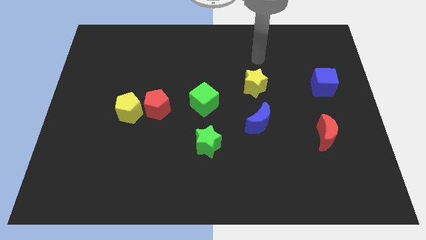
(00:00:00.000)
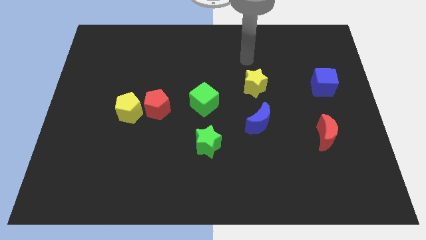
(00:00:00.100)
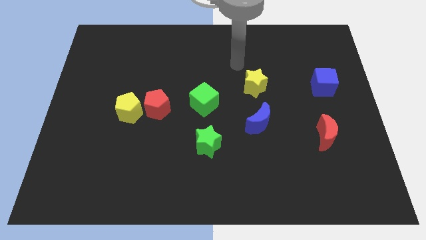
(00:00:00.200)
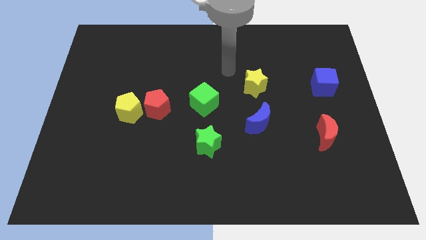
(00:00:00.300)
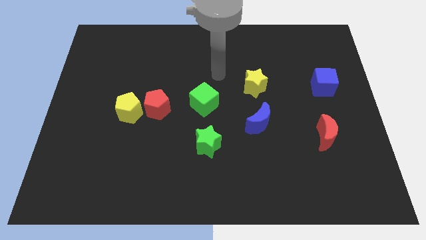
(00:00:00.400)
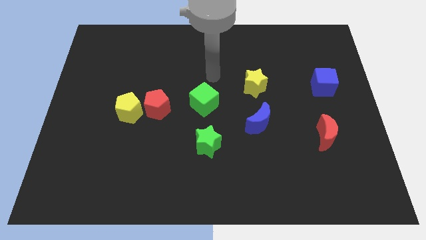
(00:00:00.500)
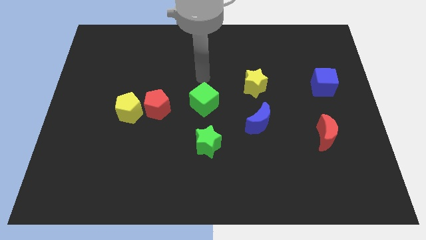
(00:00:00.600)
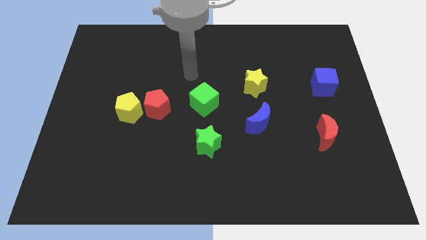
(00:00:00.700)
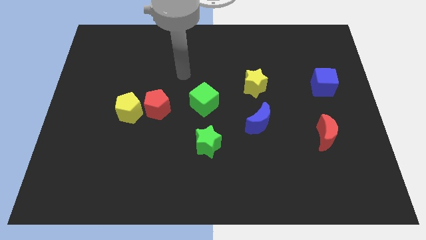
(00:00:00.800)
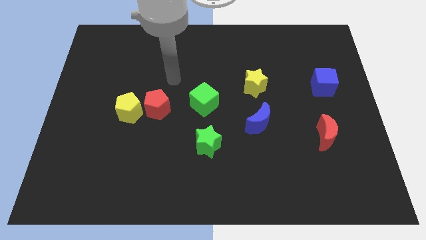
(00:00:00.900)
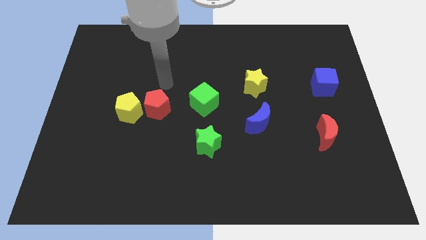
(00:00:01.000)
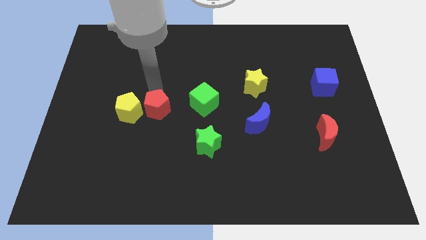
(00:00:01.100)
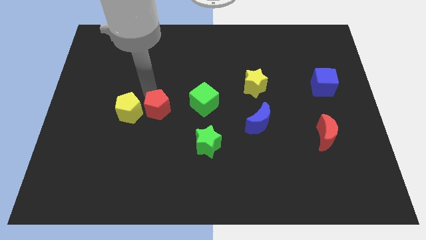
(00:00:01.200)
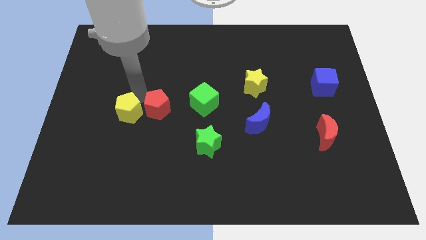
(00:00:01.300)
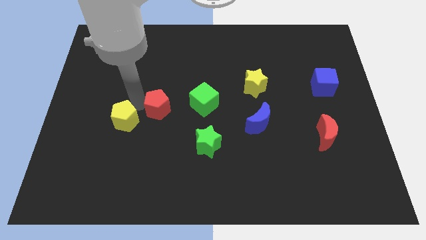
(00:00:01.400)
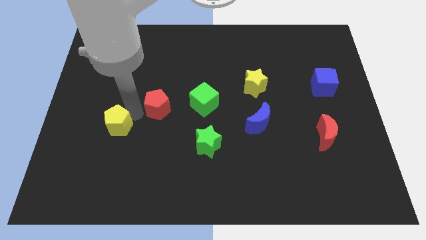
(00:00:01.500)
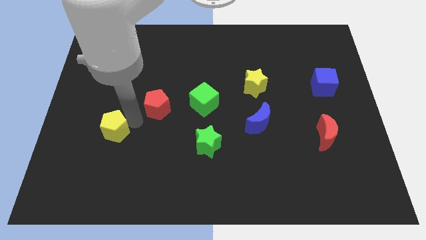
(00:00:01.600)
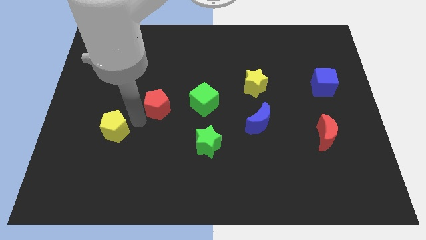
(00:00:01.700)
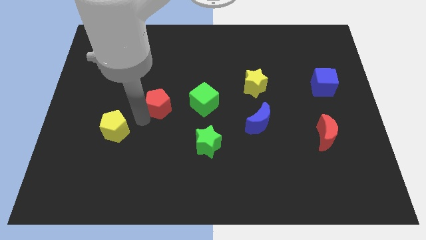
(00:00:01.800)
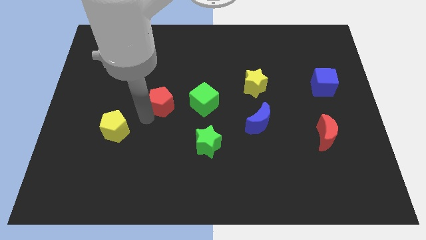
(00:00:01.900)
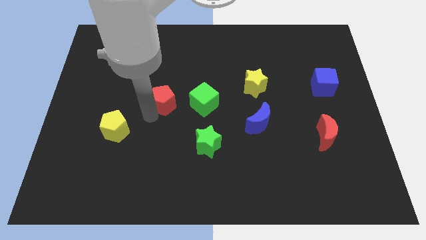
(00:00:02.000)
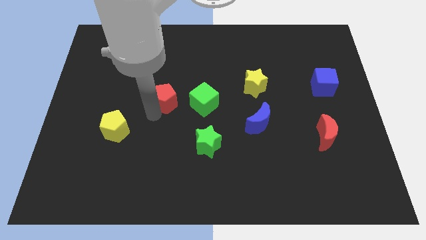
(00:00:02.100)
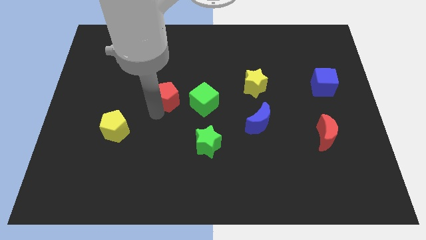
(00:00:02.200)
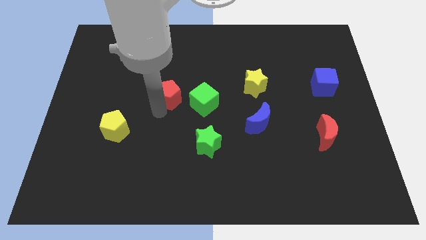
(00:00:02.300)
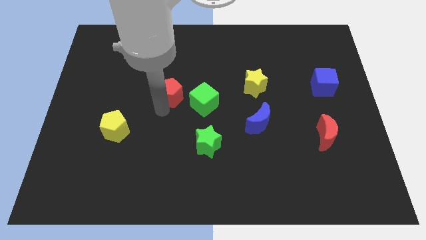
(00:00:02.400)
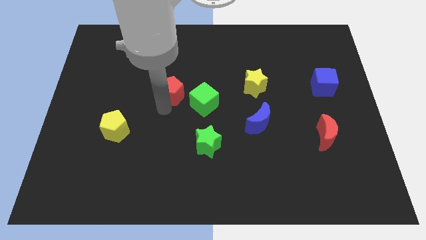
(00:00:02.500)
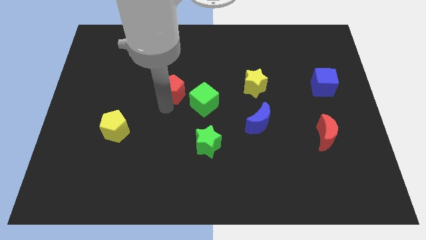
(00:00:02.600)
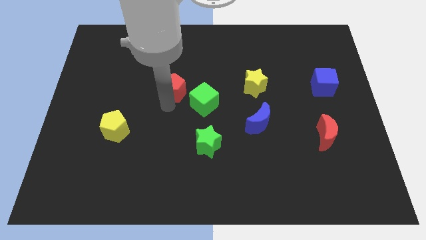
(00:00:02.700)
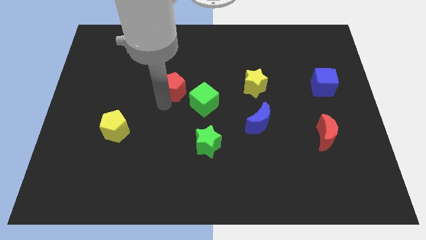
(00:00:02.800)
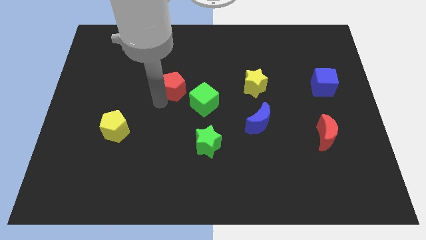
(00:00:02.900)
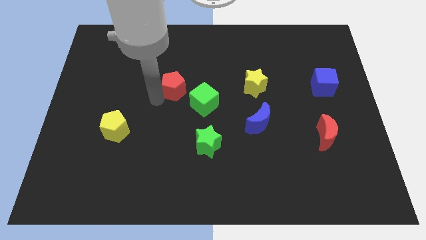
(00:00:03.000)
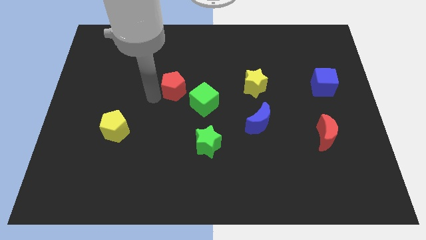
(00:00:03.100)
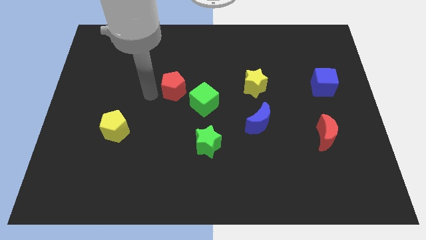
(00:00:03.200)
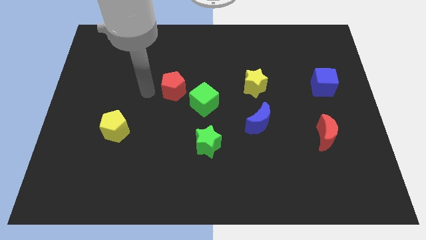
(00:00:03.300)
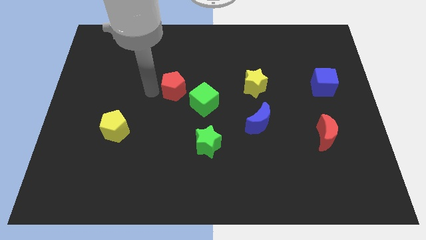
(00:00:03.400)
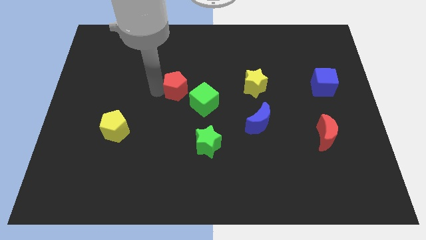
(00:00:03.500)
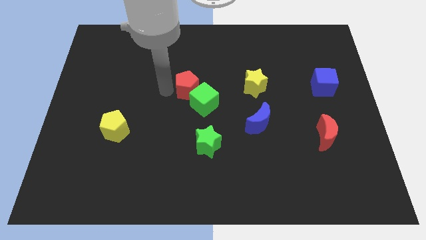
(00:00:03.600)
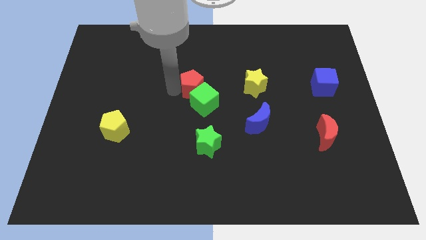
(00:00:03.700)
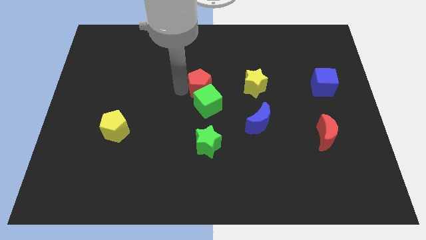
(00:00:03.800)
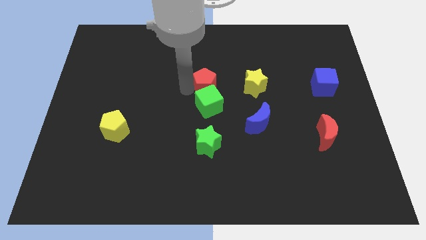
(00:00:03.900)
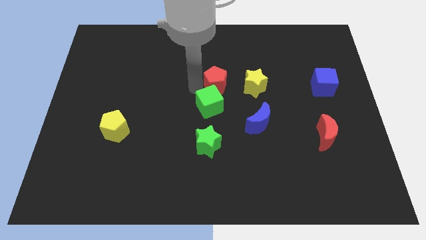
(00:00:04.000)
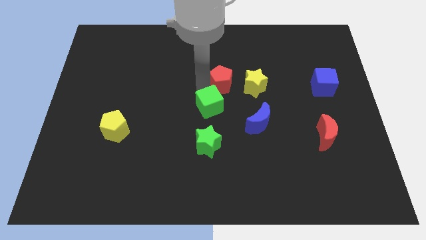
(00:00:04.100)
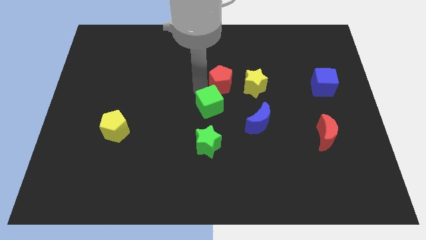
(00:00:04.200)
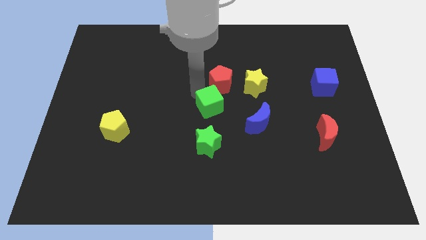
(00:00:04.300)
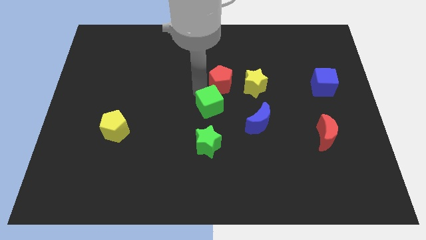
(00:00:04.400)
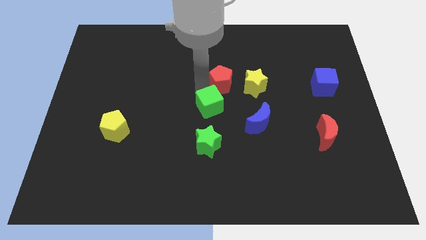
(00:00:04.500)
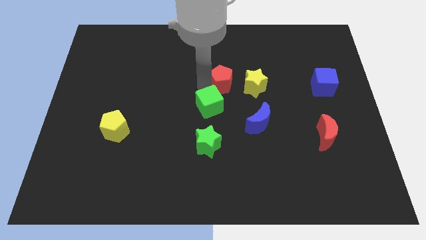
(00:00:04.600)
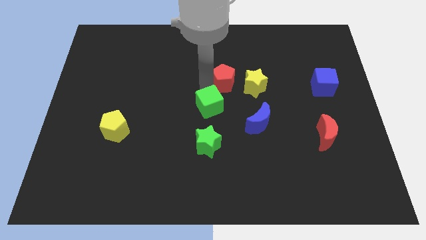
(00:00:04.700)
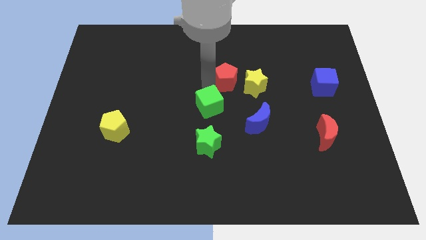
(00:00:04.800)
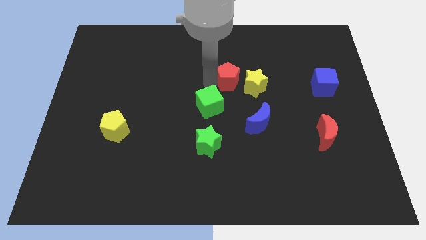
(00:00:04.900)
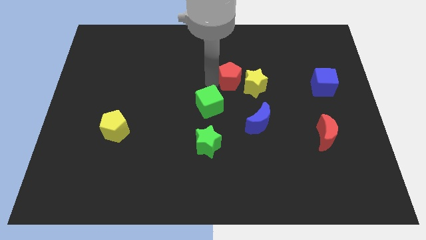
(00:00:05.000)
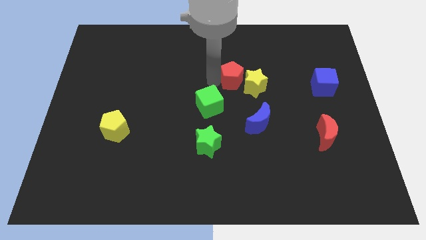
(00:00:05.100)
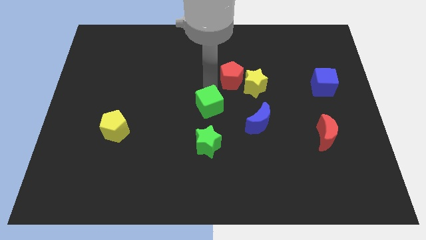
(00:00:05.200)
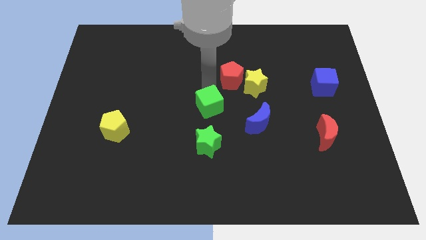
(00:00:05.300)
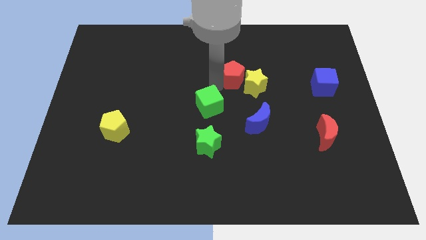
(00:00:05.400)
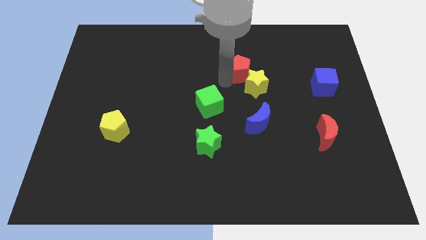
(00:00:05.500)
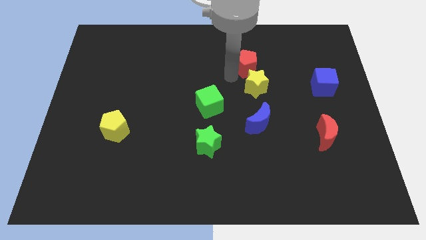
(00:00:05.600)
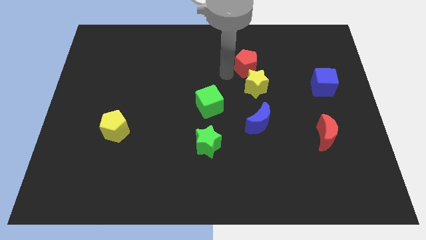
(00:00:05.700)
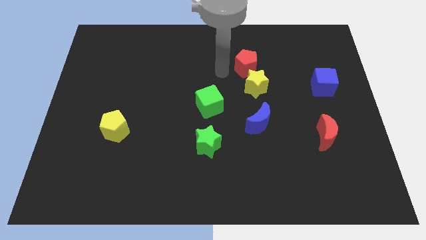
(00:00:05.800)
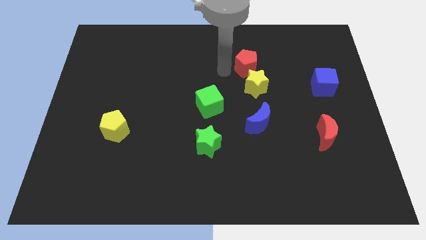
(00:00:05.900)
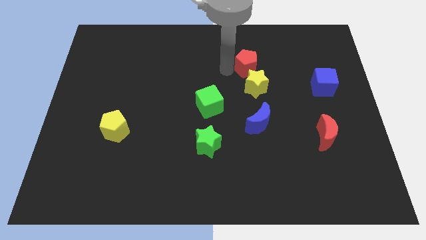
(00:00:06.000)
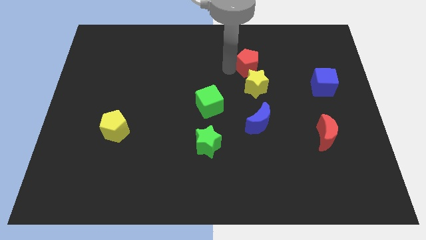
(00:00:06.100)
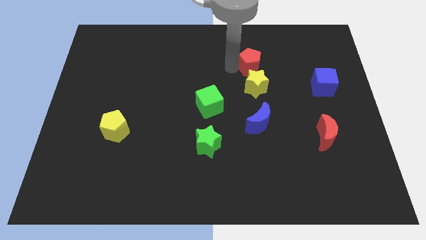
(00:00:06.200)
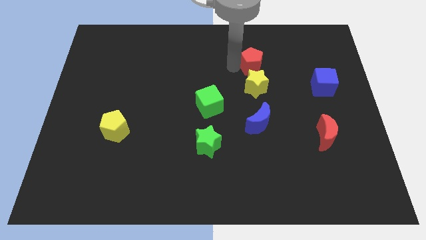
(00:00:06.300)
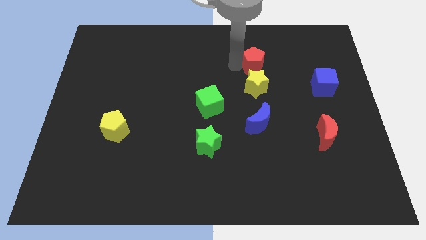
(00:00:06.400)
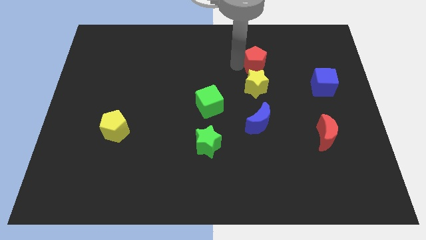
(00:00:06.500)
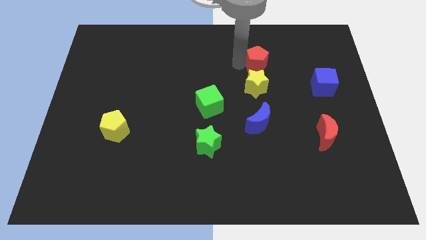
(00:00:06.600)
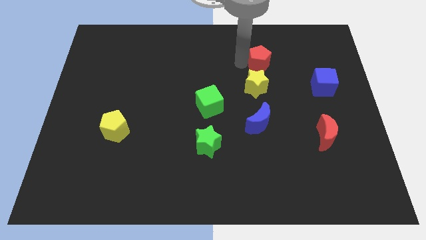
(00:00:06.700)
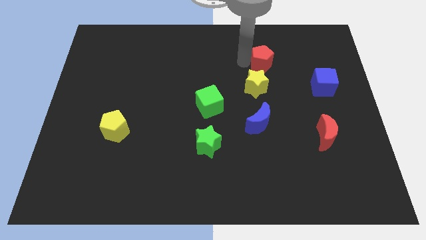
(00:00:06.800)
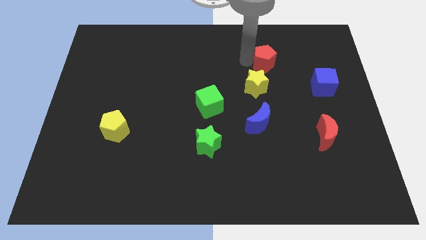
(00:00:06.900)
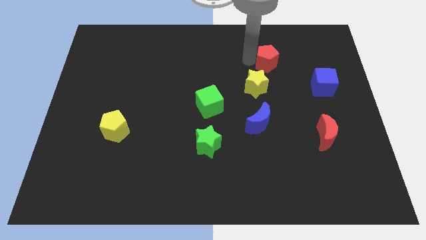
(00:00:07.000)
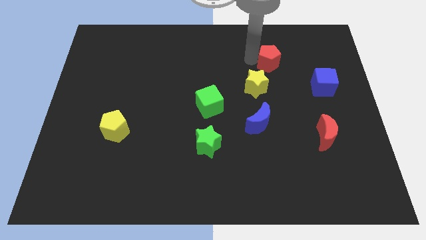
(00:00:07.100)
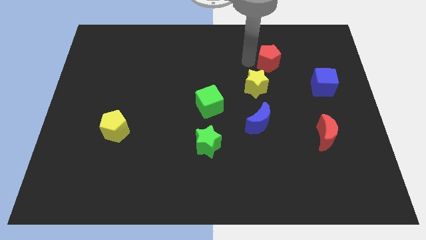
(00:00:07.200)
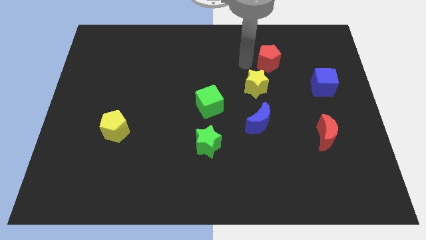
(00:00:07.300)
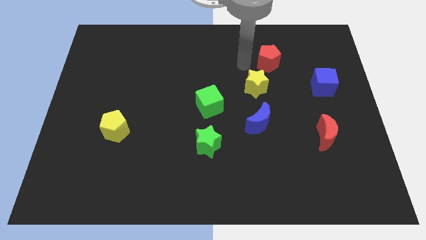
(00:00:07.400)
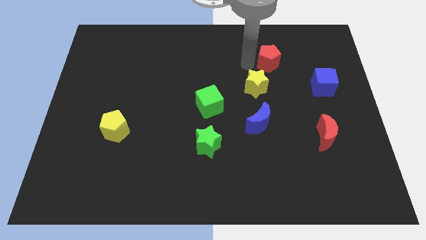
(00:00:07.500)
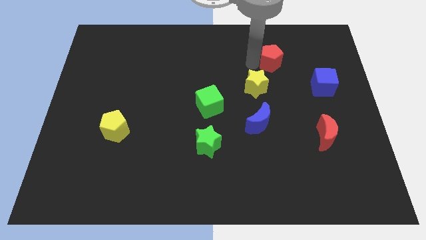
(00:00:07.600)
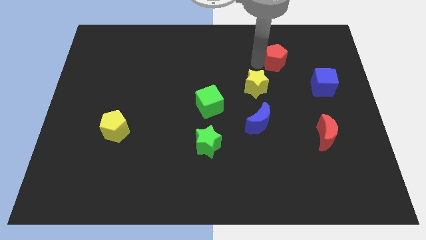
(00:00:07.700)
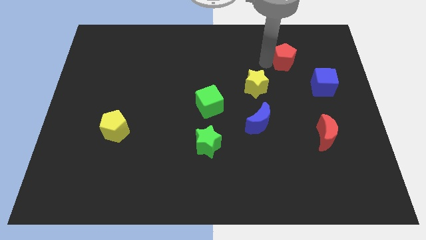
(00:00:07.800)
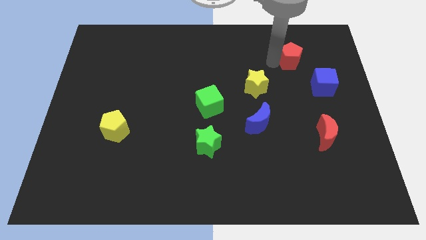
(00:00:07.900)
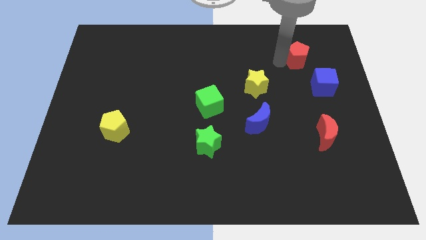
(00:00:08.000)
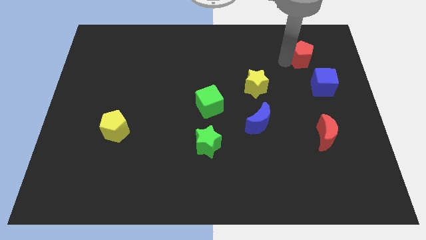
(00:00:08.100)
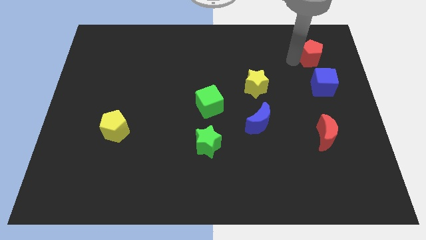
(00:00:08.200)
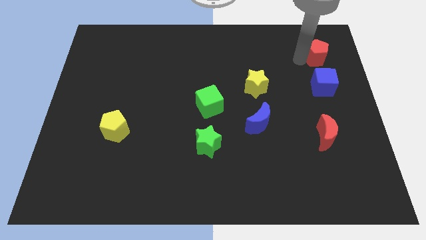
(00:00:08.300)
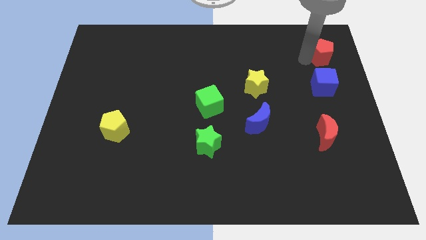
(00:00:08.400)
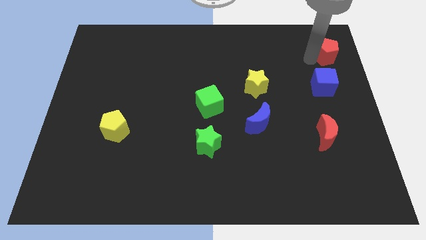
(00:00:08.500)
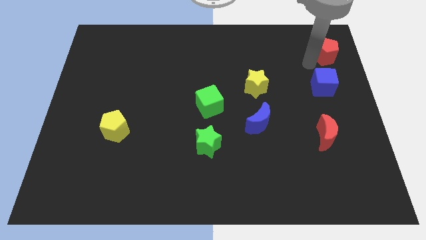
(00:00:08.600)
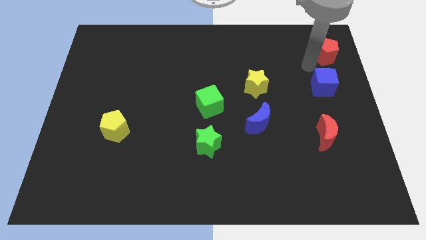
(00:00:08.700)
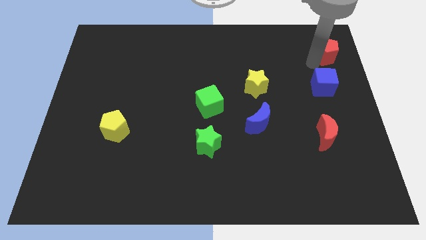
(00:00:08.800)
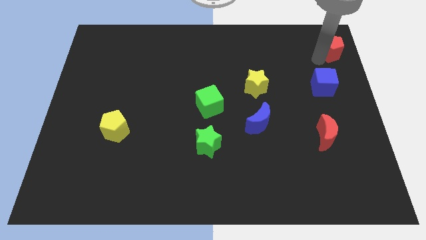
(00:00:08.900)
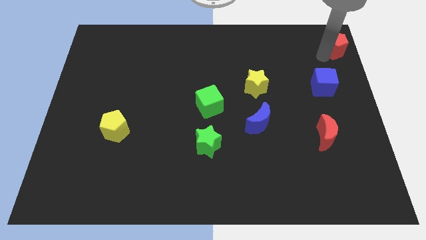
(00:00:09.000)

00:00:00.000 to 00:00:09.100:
slide the red pentagon to the top right corner
